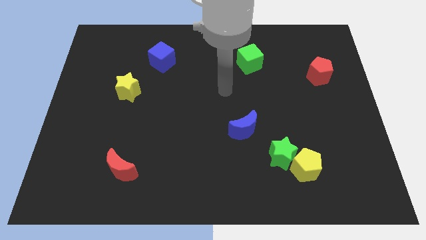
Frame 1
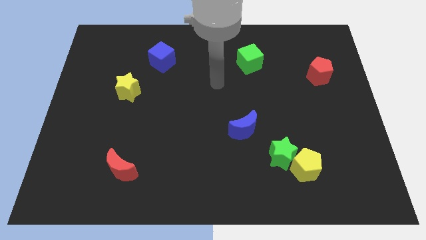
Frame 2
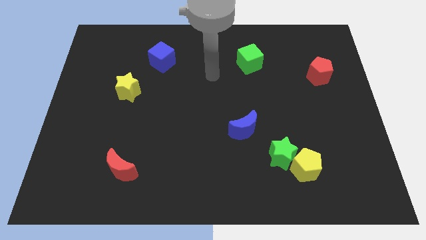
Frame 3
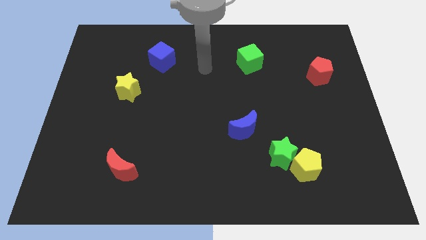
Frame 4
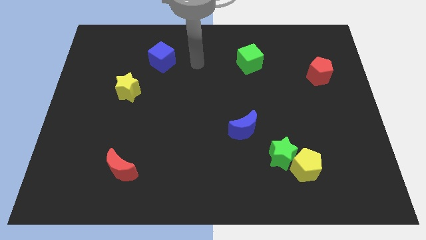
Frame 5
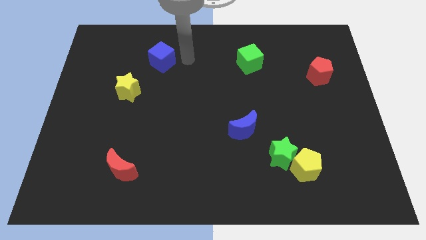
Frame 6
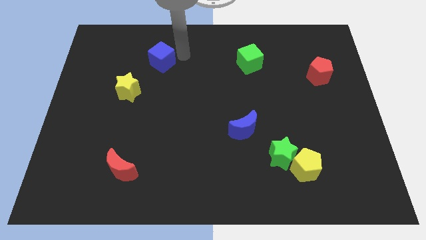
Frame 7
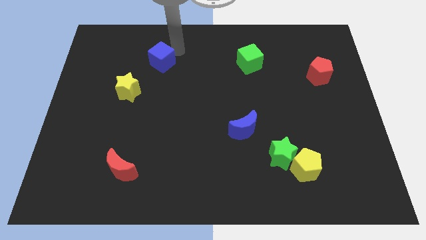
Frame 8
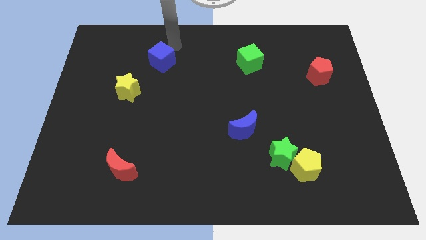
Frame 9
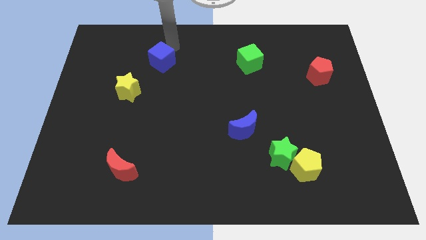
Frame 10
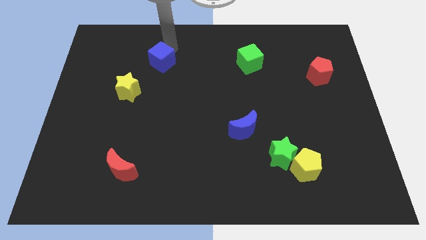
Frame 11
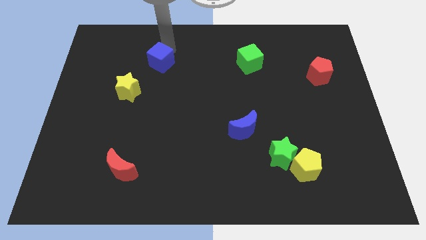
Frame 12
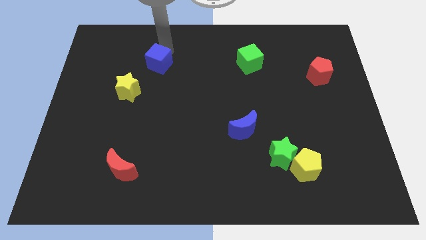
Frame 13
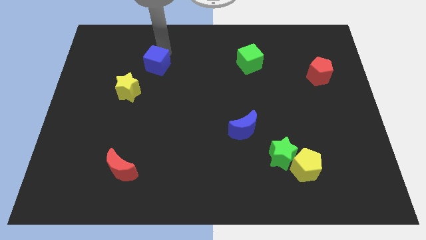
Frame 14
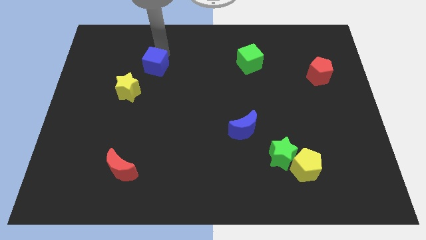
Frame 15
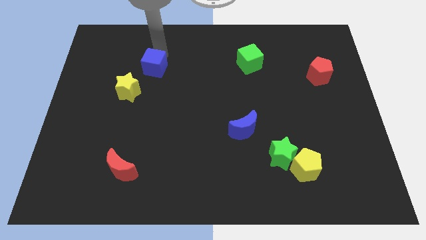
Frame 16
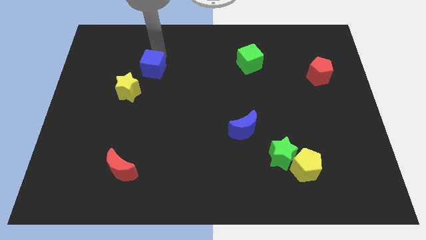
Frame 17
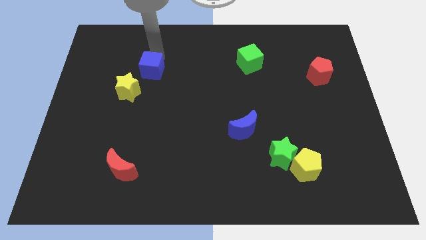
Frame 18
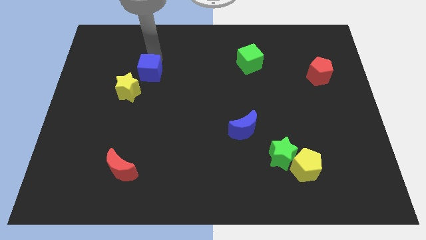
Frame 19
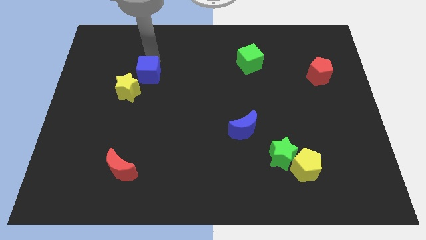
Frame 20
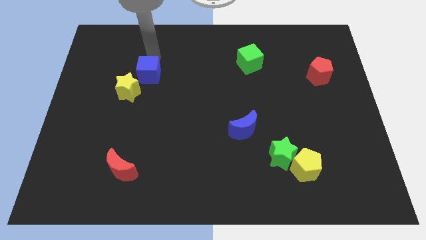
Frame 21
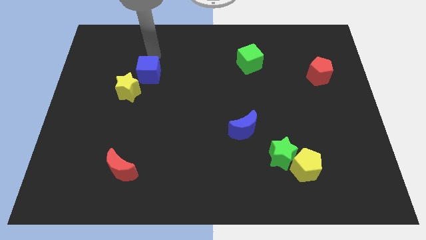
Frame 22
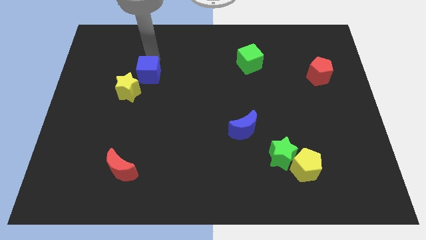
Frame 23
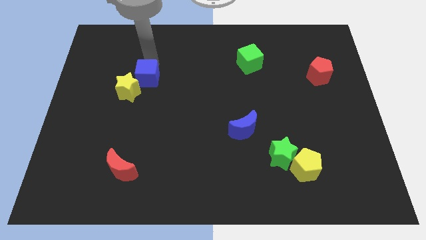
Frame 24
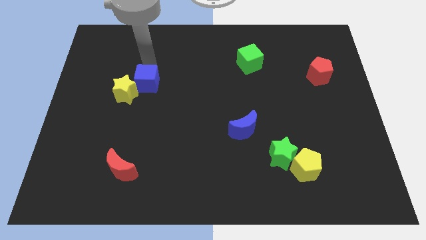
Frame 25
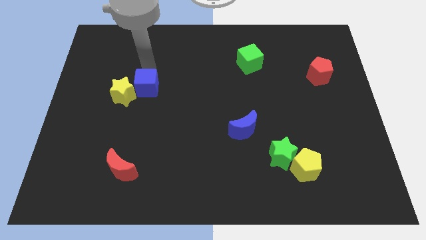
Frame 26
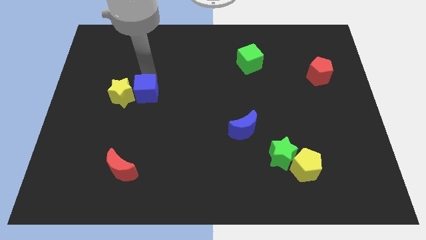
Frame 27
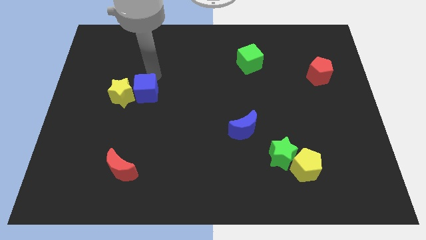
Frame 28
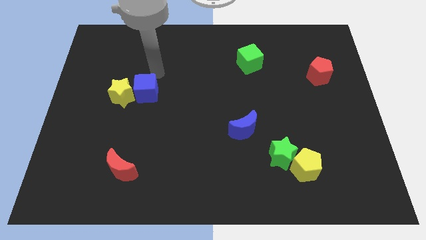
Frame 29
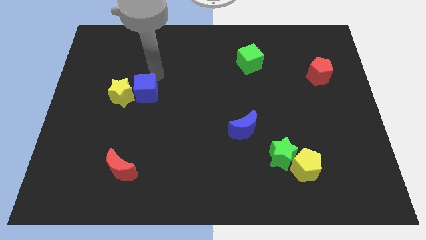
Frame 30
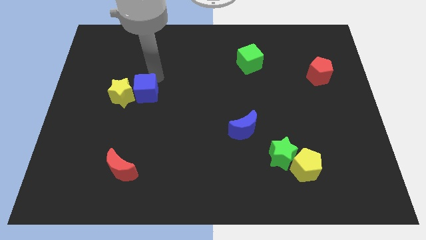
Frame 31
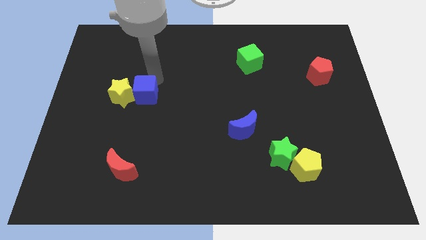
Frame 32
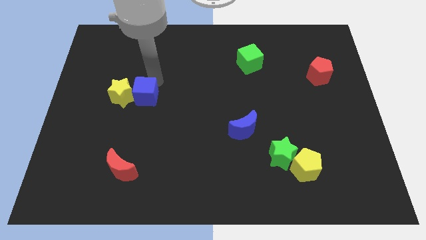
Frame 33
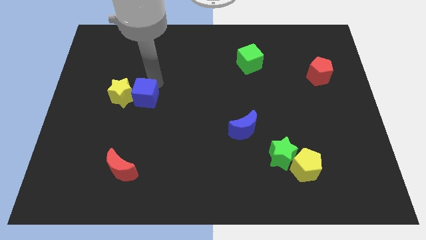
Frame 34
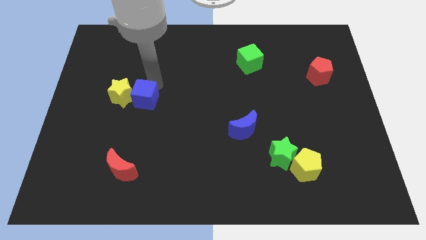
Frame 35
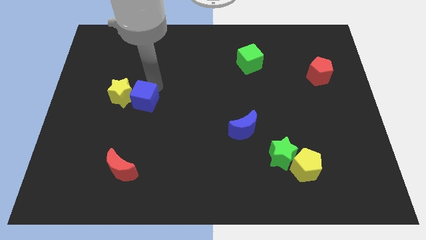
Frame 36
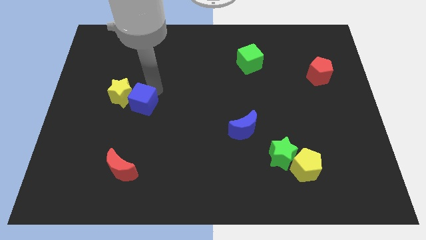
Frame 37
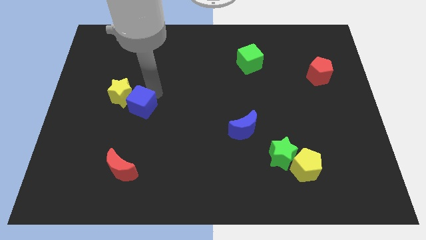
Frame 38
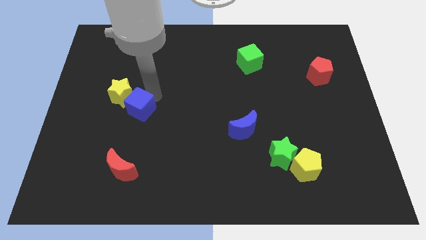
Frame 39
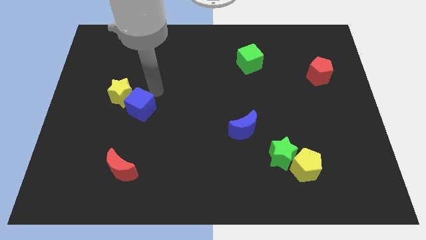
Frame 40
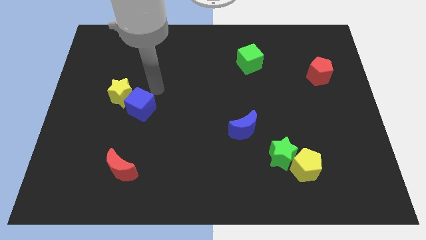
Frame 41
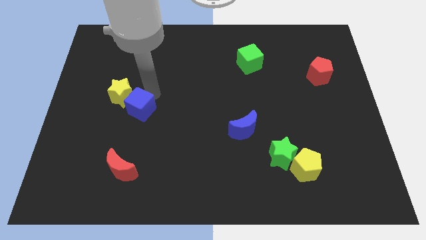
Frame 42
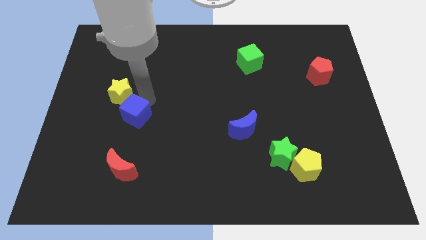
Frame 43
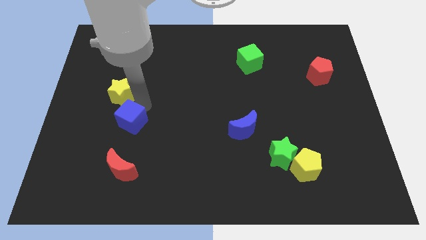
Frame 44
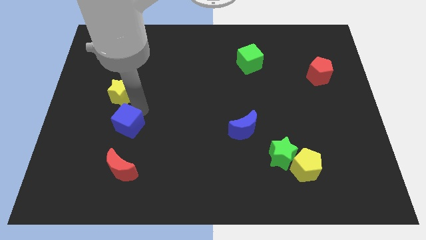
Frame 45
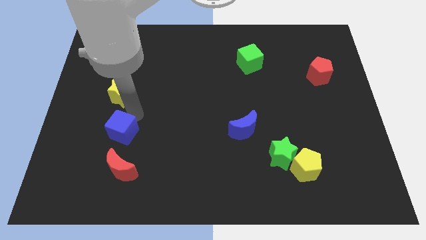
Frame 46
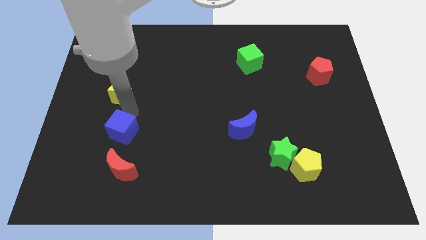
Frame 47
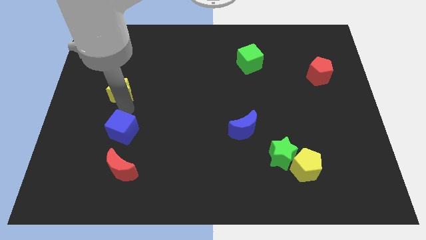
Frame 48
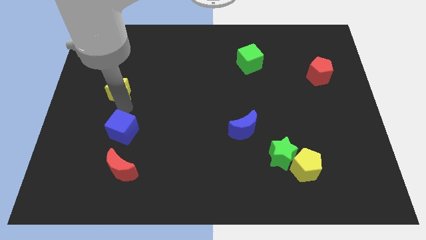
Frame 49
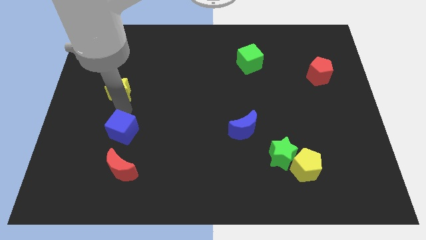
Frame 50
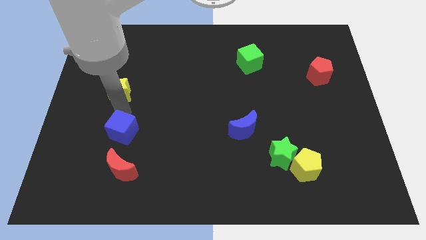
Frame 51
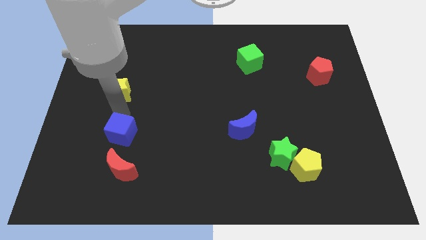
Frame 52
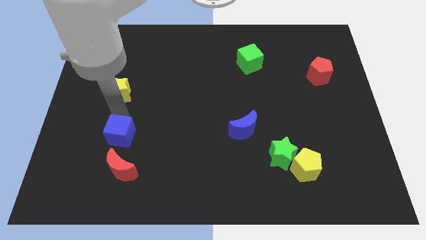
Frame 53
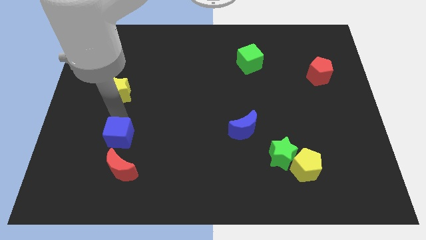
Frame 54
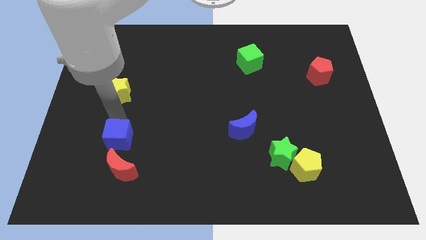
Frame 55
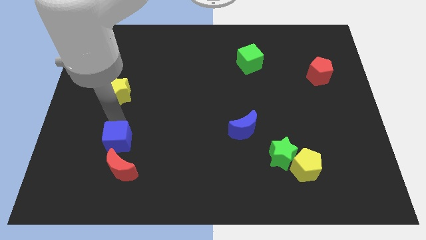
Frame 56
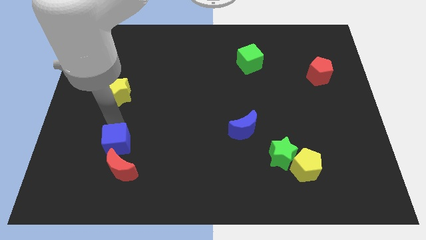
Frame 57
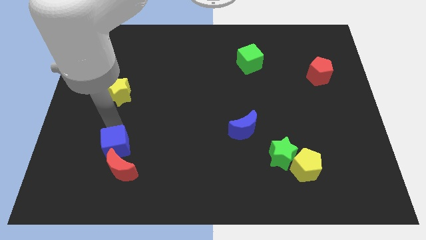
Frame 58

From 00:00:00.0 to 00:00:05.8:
move the blue cube close to the red moon

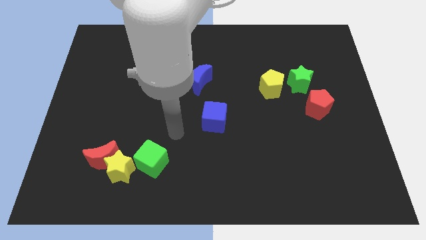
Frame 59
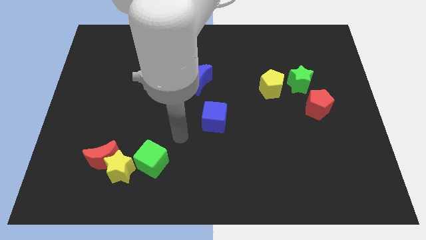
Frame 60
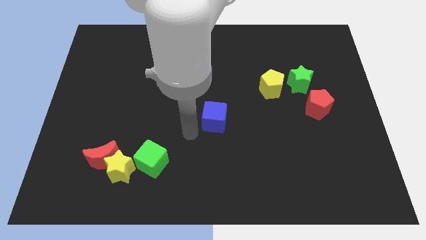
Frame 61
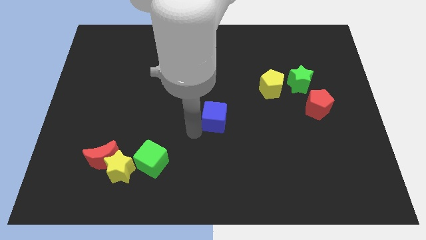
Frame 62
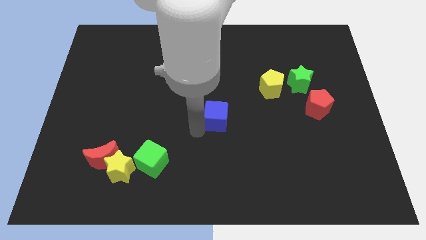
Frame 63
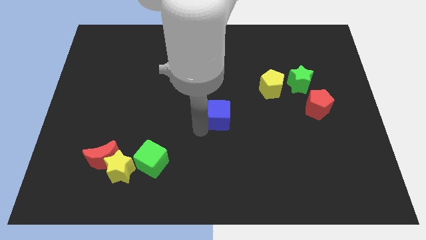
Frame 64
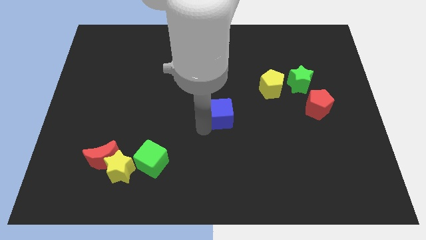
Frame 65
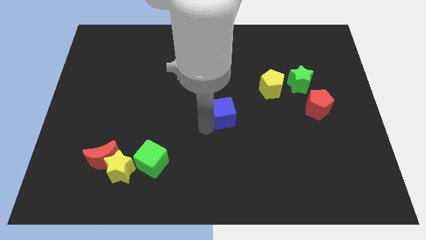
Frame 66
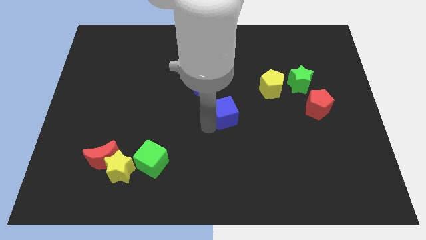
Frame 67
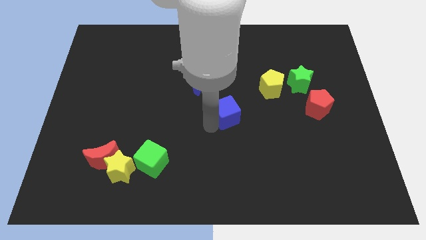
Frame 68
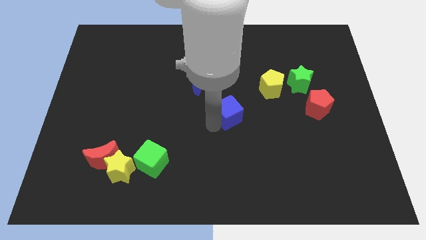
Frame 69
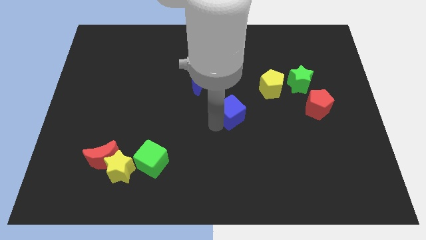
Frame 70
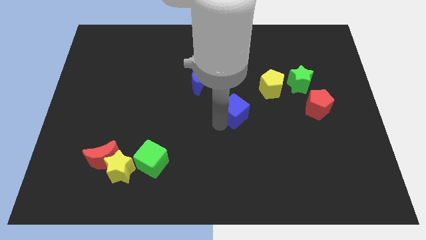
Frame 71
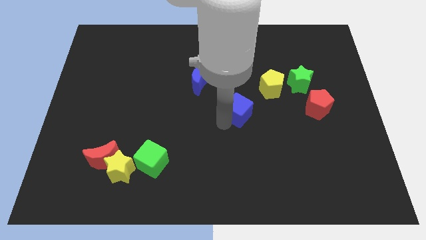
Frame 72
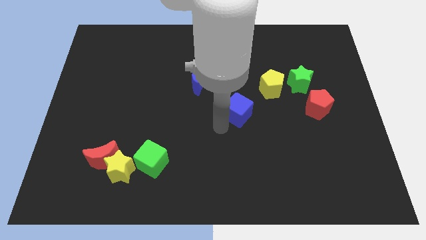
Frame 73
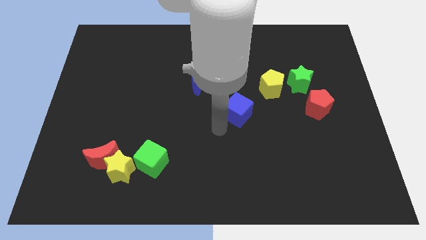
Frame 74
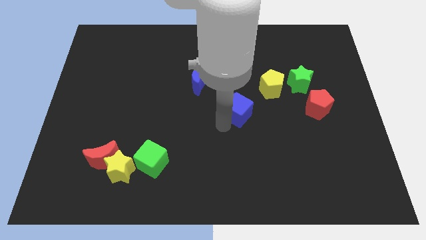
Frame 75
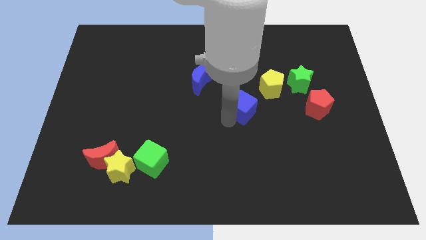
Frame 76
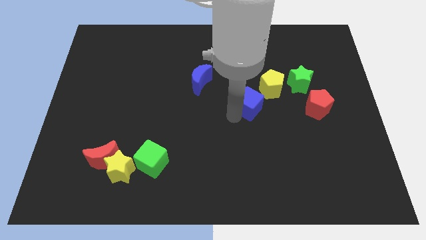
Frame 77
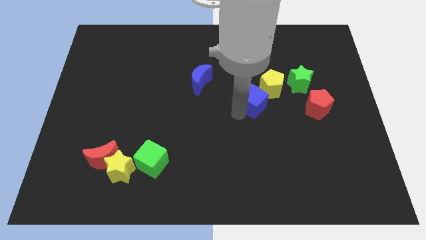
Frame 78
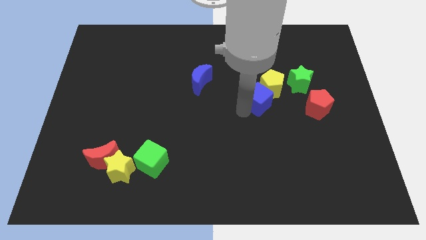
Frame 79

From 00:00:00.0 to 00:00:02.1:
slide the blue cube next to the yellow pentagon
